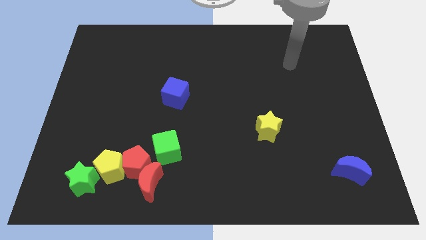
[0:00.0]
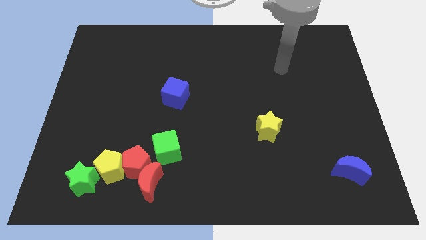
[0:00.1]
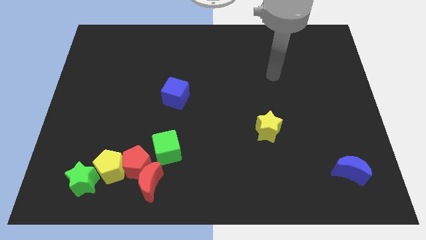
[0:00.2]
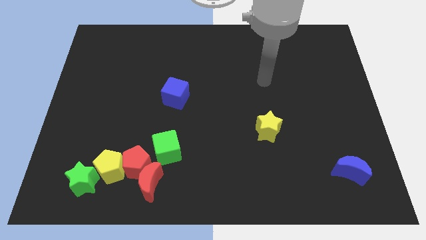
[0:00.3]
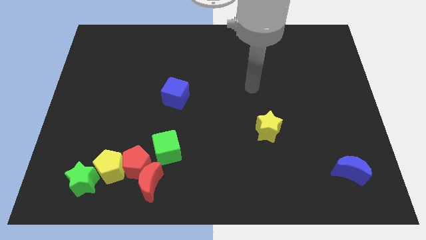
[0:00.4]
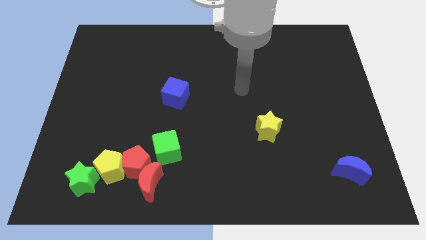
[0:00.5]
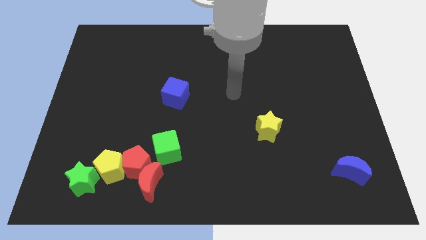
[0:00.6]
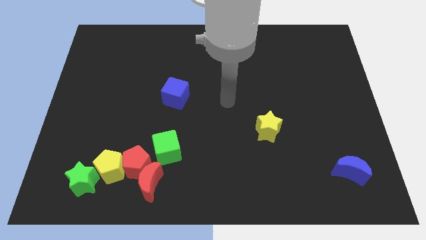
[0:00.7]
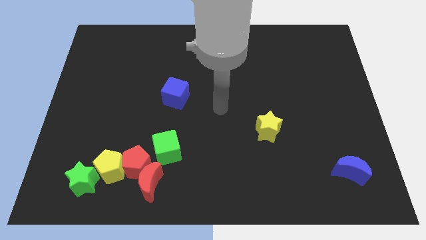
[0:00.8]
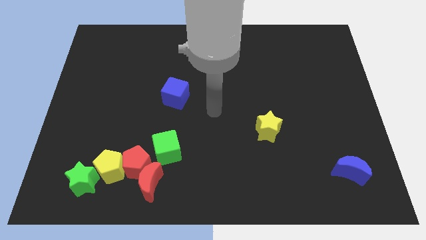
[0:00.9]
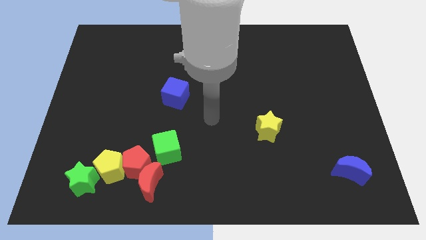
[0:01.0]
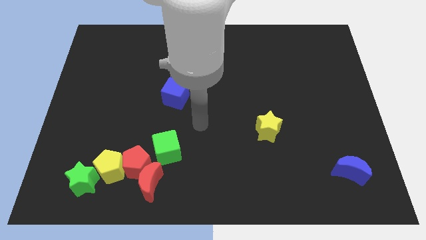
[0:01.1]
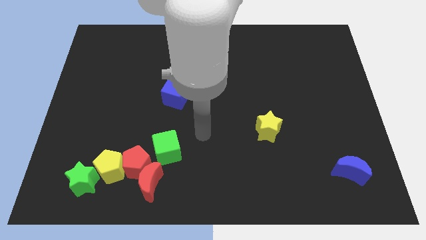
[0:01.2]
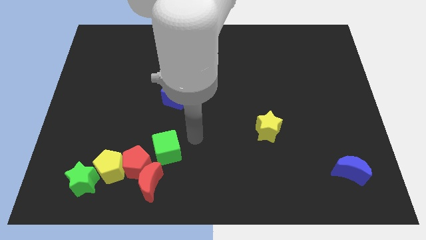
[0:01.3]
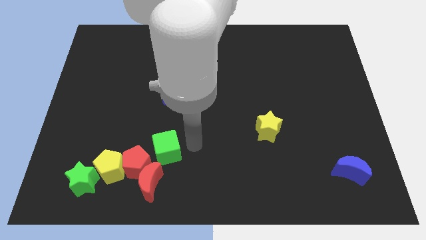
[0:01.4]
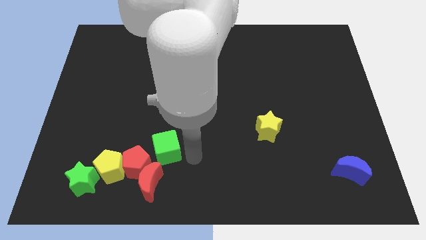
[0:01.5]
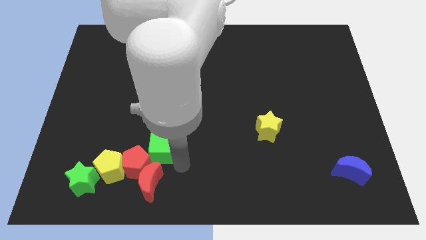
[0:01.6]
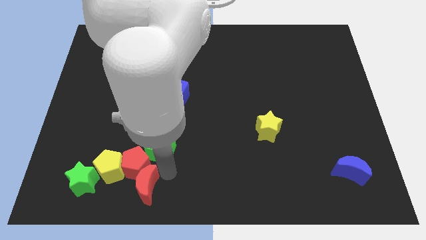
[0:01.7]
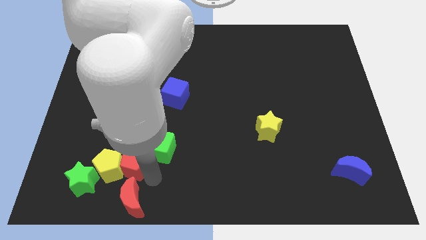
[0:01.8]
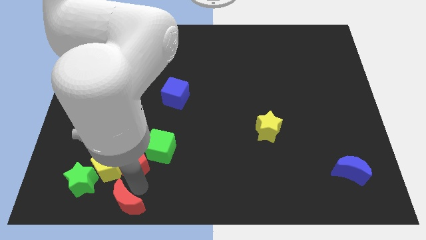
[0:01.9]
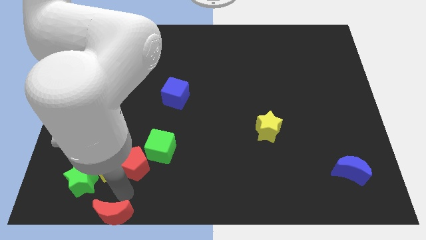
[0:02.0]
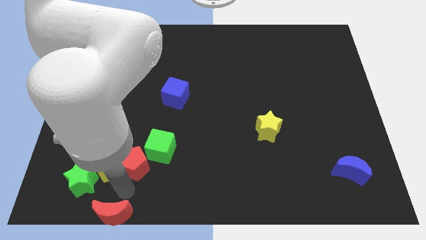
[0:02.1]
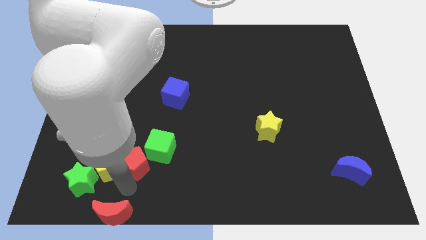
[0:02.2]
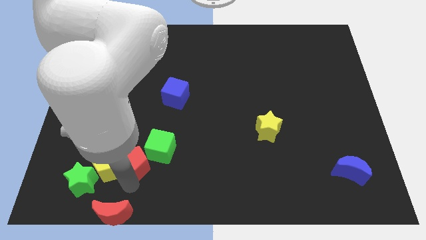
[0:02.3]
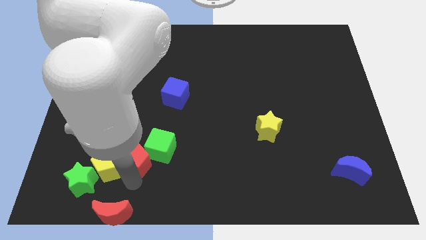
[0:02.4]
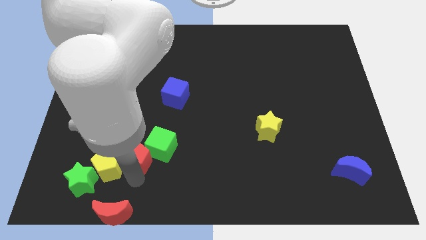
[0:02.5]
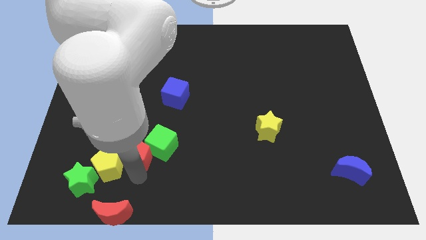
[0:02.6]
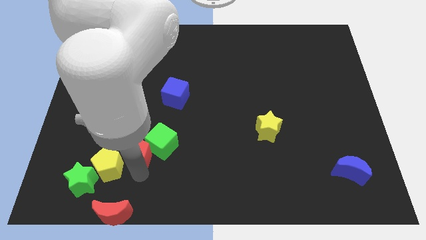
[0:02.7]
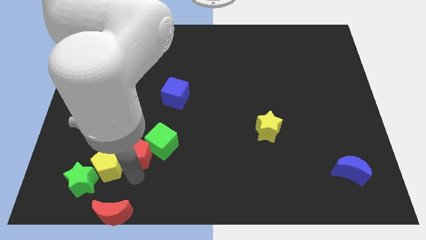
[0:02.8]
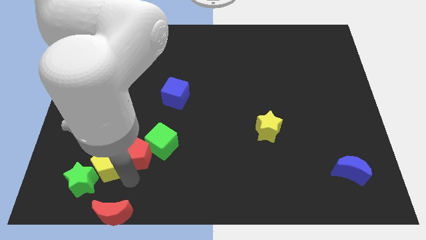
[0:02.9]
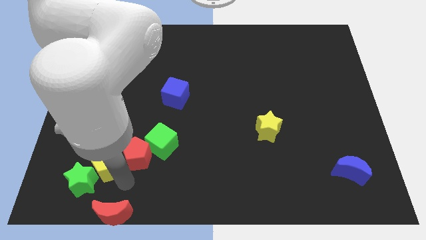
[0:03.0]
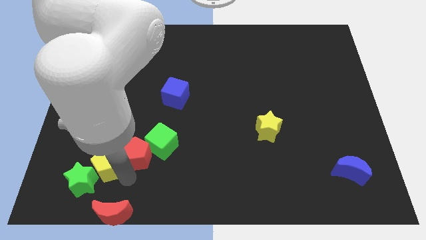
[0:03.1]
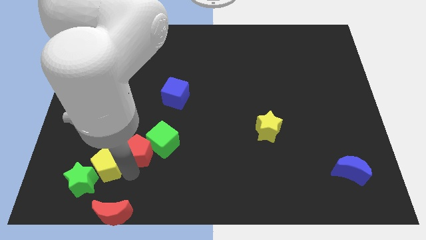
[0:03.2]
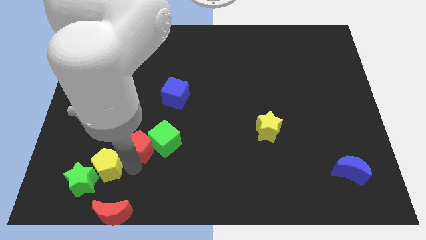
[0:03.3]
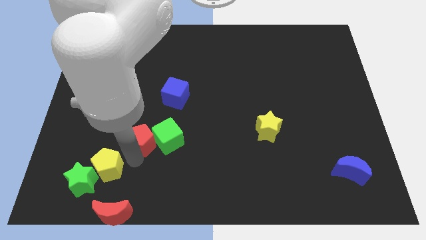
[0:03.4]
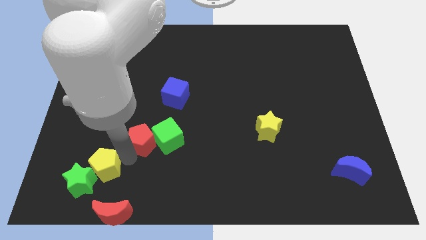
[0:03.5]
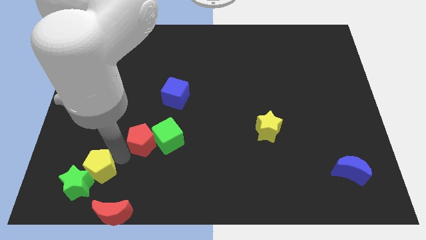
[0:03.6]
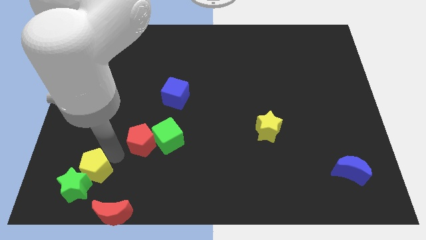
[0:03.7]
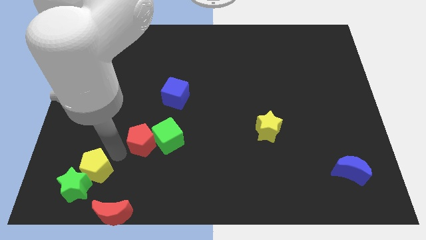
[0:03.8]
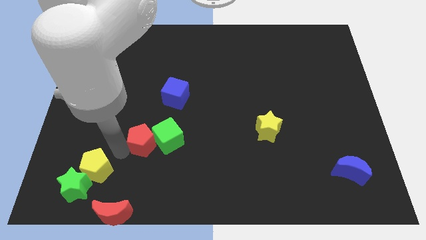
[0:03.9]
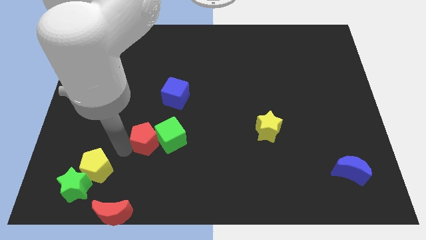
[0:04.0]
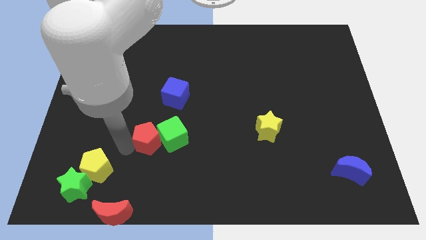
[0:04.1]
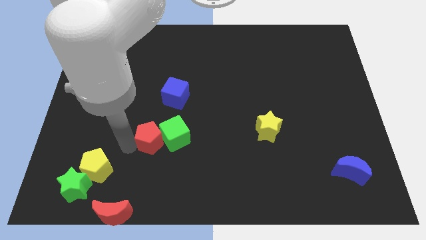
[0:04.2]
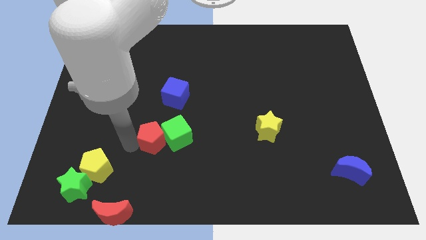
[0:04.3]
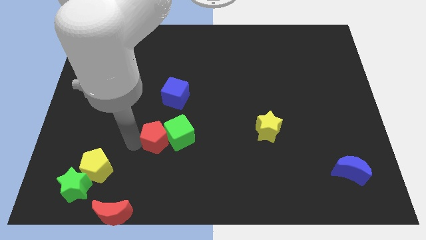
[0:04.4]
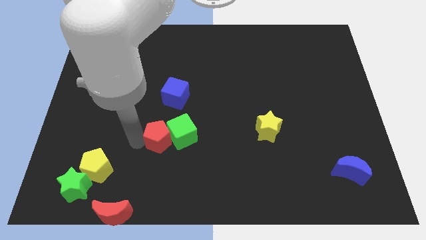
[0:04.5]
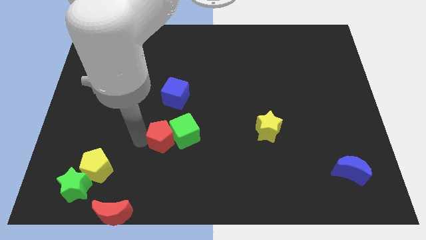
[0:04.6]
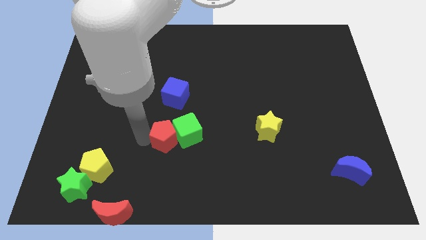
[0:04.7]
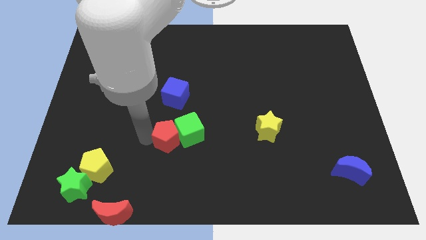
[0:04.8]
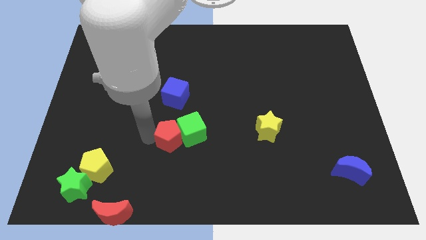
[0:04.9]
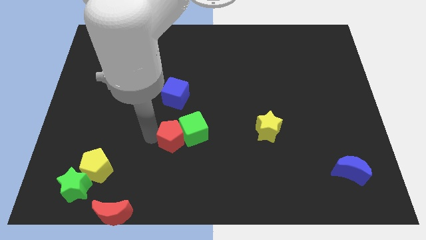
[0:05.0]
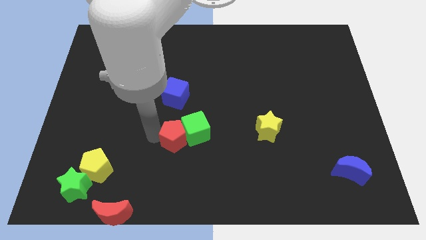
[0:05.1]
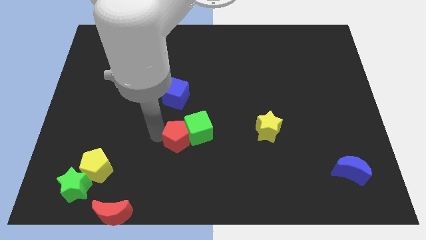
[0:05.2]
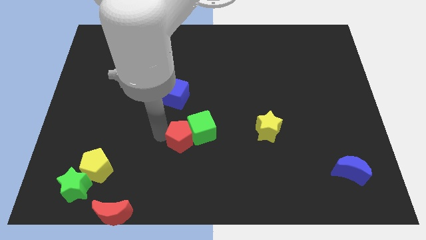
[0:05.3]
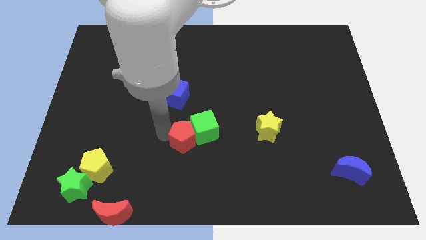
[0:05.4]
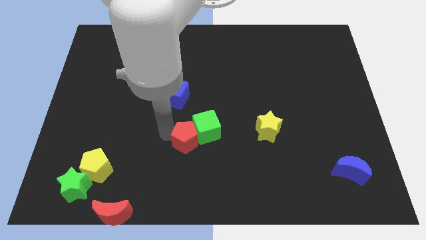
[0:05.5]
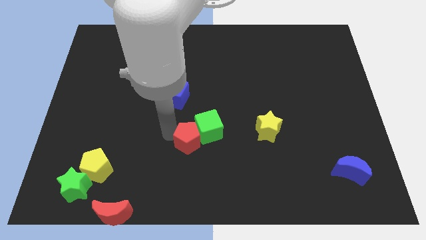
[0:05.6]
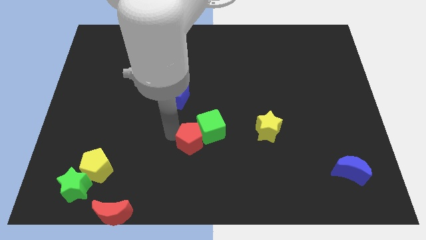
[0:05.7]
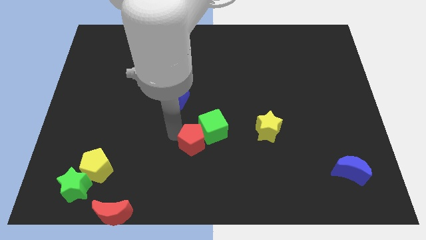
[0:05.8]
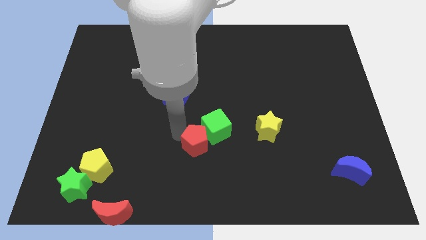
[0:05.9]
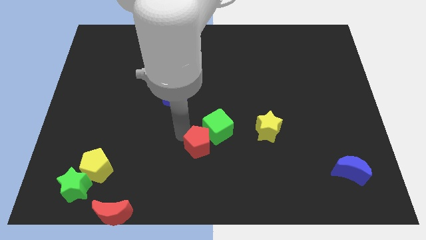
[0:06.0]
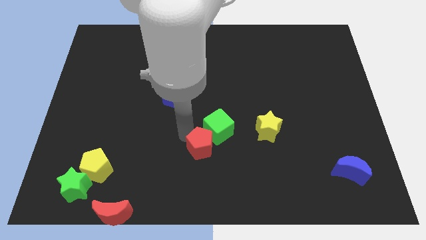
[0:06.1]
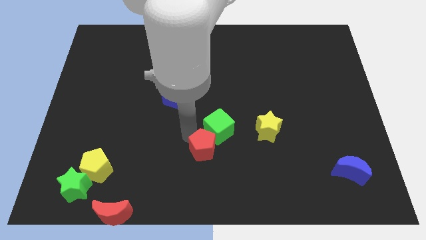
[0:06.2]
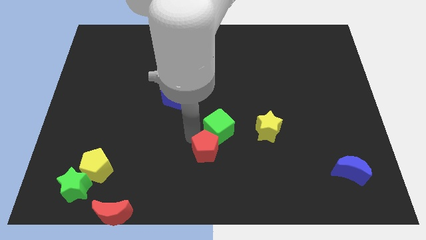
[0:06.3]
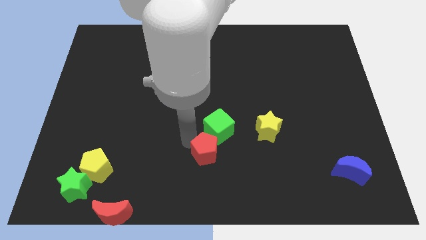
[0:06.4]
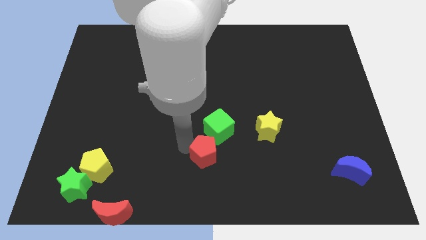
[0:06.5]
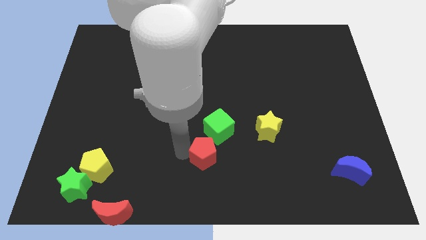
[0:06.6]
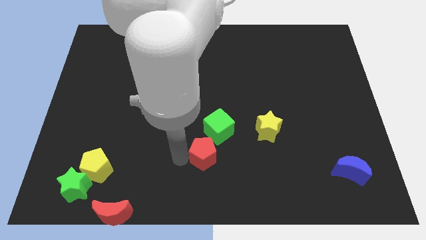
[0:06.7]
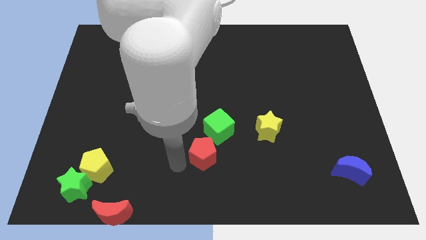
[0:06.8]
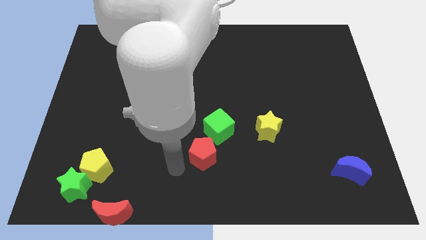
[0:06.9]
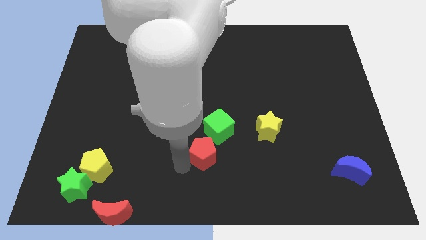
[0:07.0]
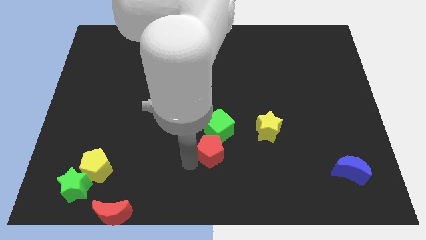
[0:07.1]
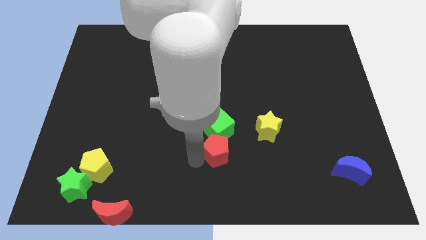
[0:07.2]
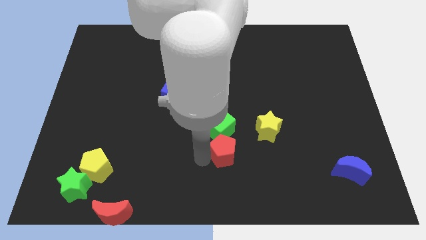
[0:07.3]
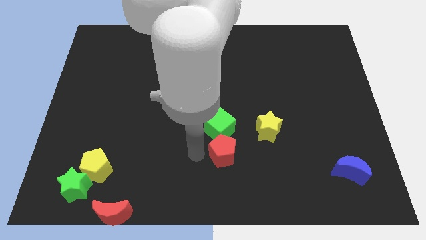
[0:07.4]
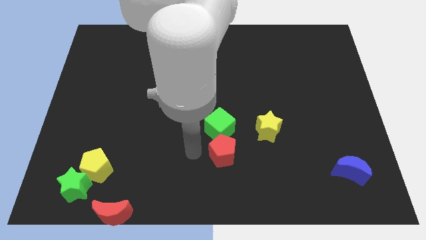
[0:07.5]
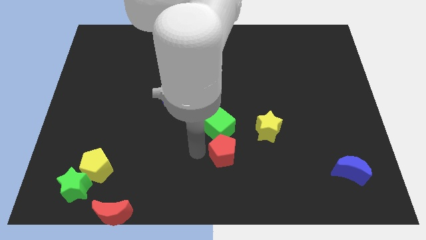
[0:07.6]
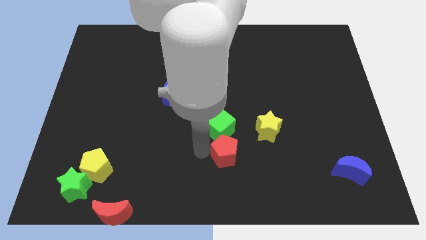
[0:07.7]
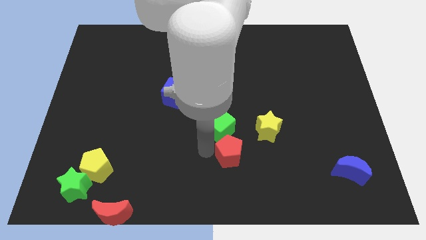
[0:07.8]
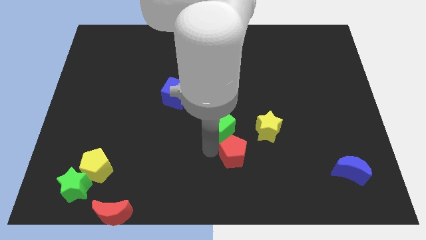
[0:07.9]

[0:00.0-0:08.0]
slide the red pentagon right

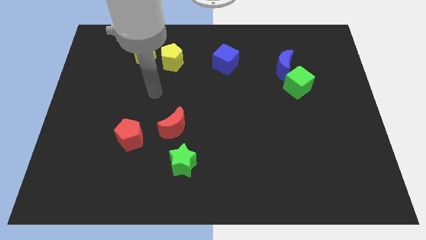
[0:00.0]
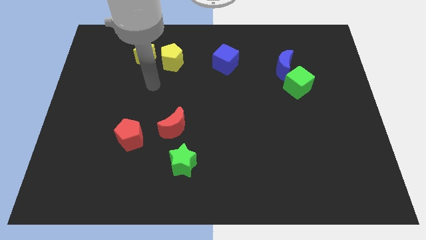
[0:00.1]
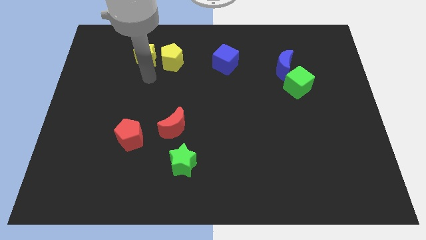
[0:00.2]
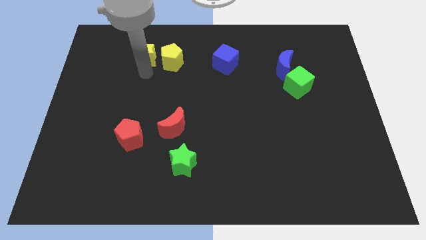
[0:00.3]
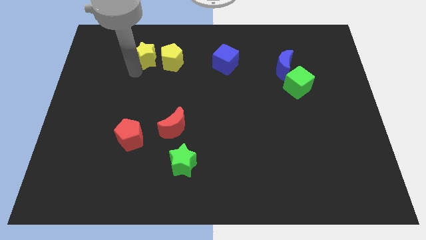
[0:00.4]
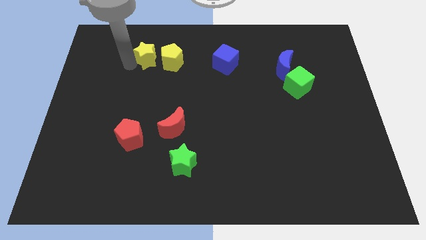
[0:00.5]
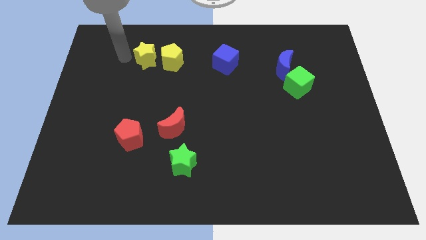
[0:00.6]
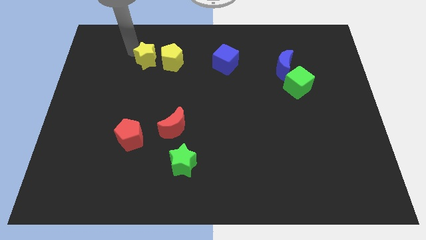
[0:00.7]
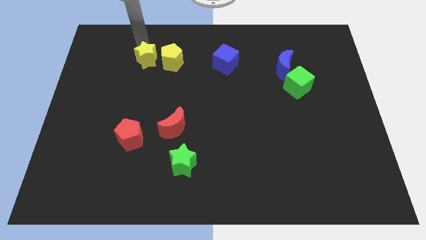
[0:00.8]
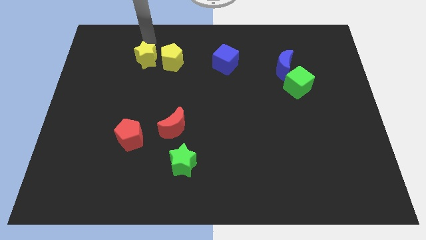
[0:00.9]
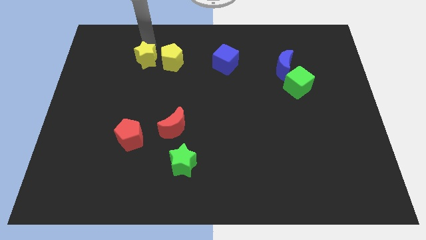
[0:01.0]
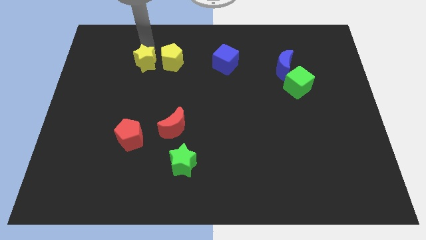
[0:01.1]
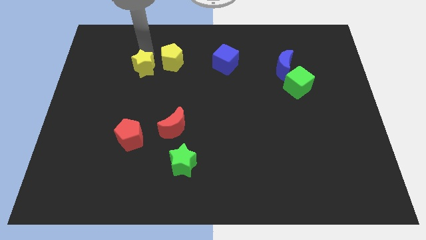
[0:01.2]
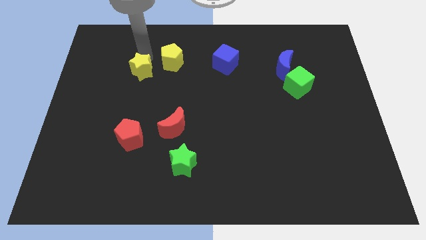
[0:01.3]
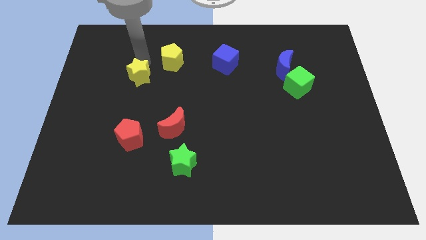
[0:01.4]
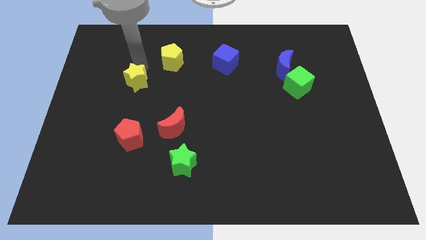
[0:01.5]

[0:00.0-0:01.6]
push the yellow star downwards slightly
